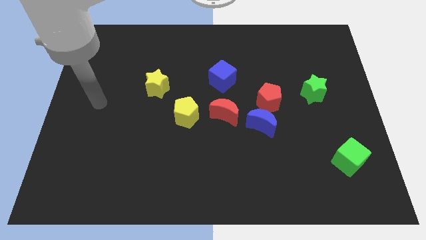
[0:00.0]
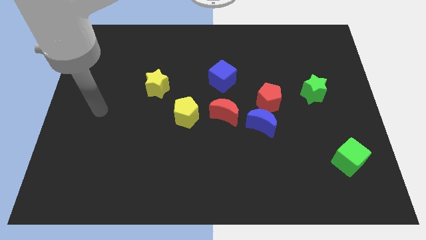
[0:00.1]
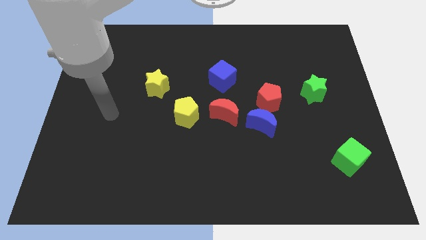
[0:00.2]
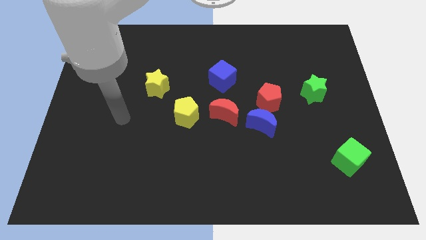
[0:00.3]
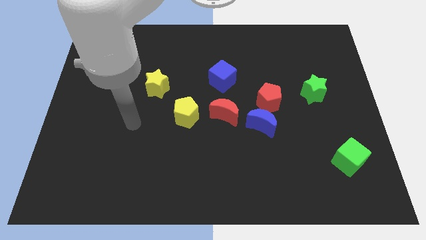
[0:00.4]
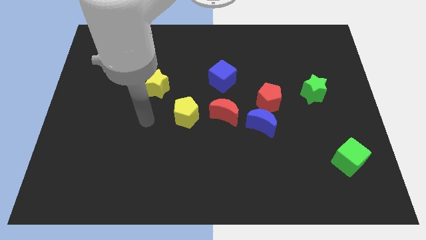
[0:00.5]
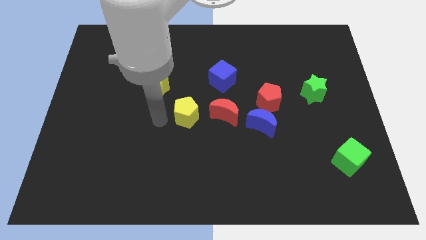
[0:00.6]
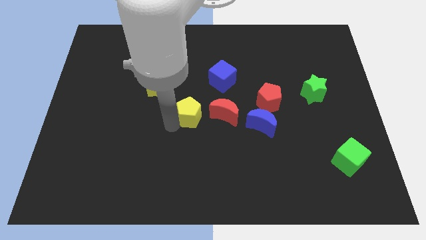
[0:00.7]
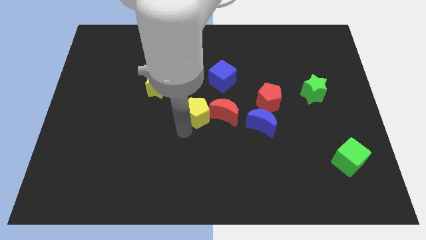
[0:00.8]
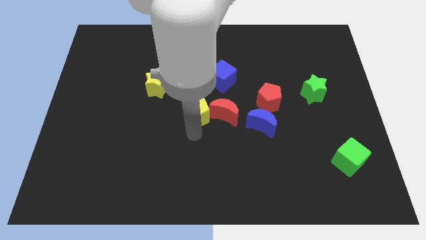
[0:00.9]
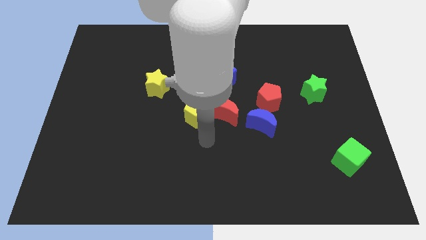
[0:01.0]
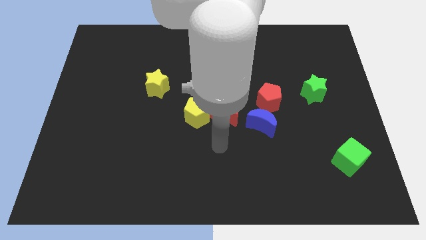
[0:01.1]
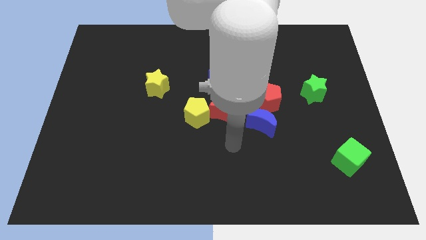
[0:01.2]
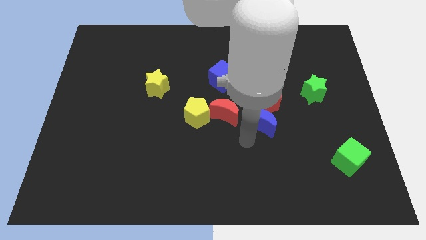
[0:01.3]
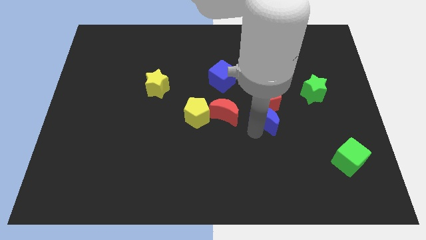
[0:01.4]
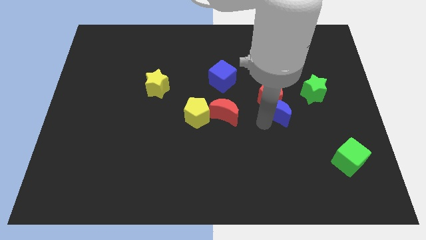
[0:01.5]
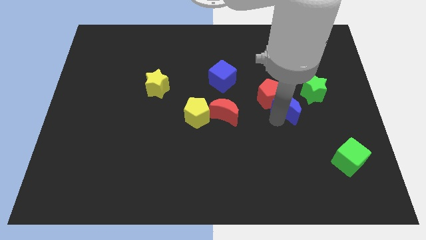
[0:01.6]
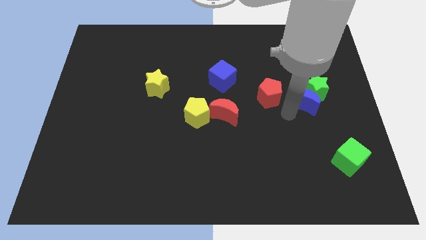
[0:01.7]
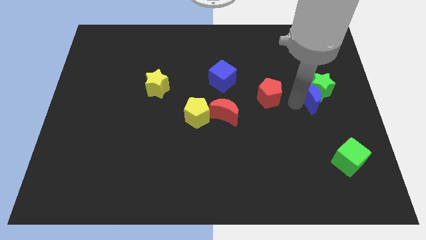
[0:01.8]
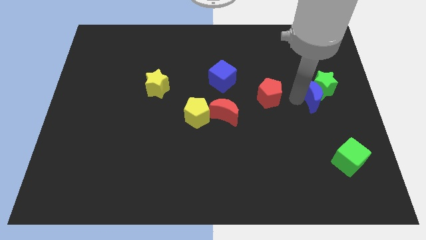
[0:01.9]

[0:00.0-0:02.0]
pull the red pentagon apart from the blue moon

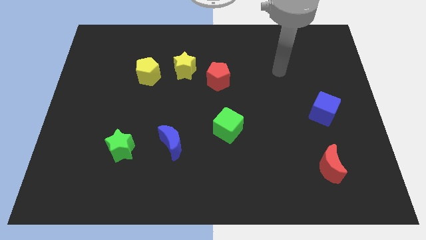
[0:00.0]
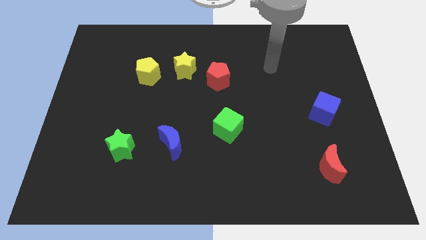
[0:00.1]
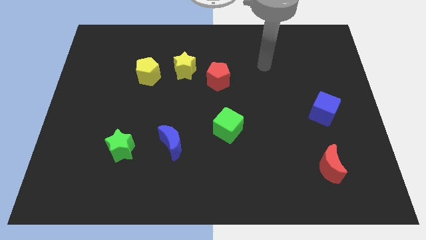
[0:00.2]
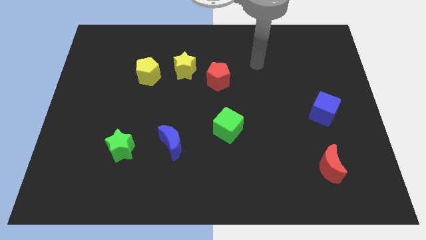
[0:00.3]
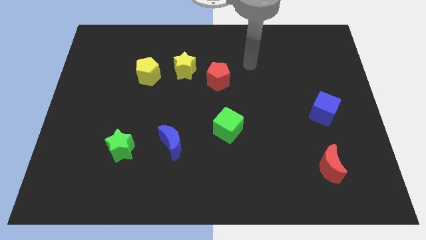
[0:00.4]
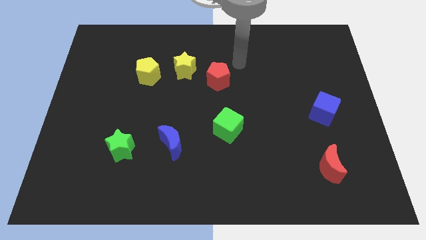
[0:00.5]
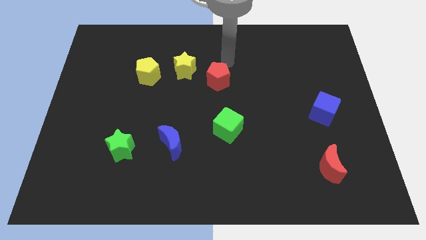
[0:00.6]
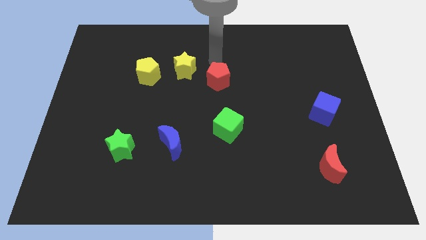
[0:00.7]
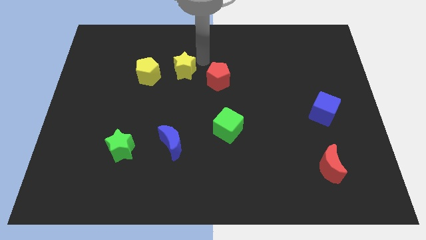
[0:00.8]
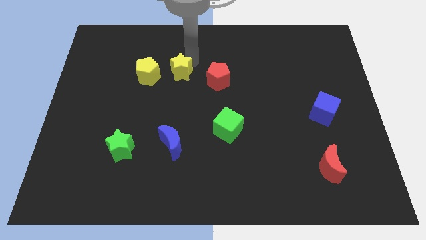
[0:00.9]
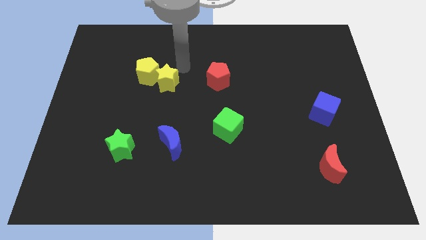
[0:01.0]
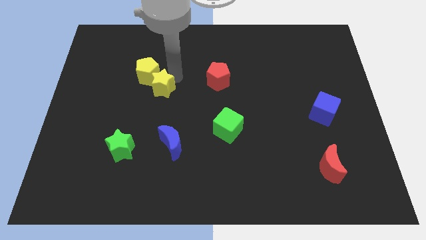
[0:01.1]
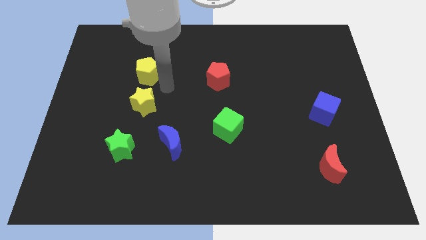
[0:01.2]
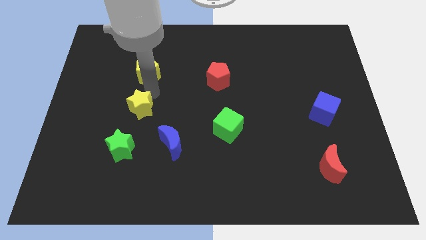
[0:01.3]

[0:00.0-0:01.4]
move the yellow pentagon away from the yellow star

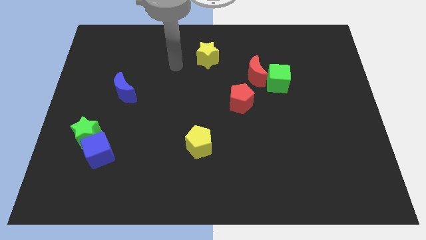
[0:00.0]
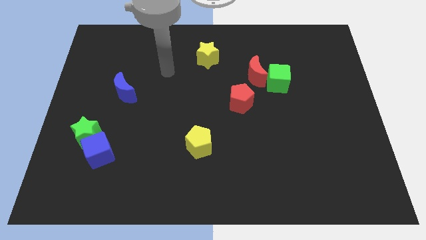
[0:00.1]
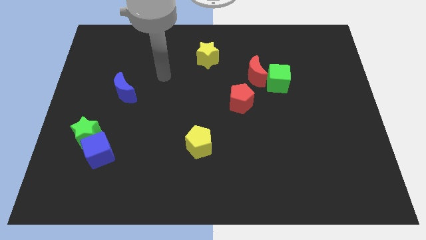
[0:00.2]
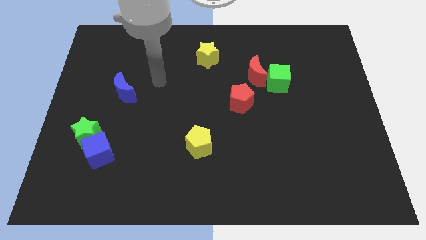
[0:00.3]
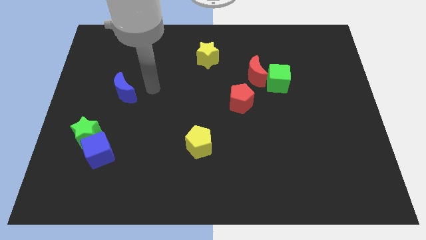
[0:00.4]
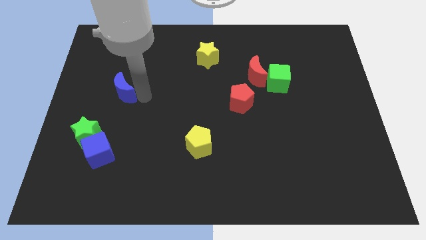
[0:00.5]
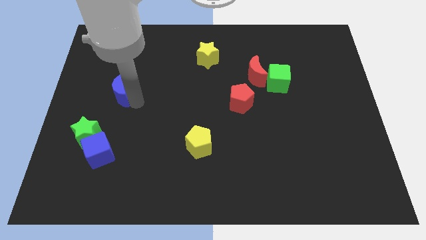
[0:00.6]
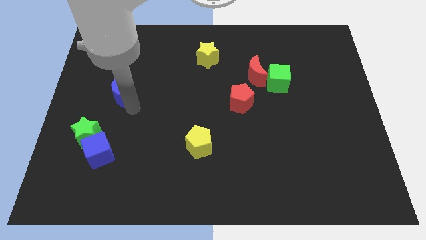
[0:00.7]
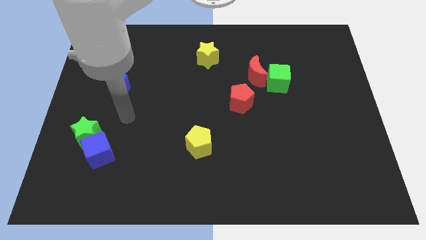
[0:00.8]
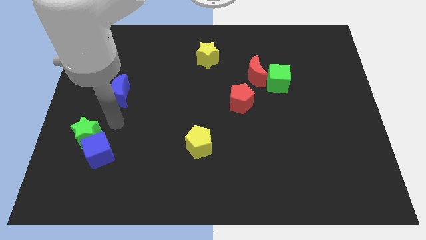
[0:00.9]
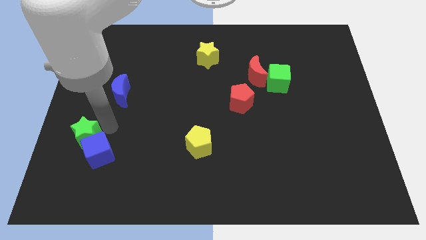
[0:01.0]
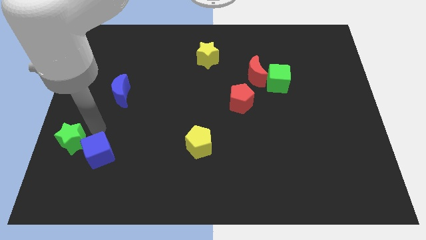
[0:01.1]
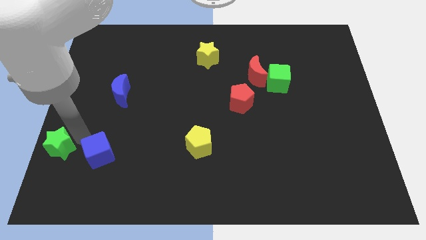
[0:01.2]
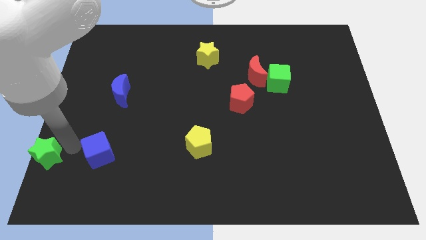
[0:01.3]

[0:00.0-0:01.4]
separate the blue cube from the green star

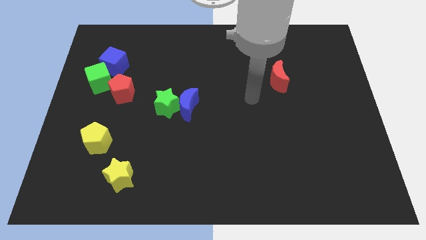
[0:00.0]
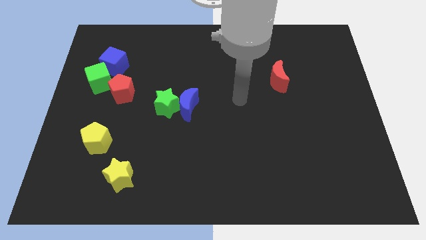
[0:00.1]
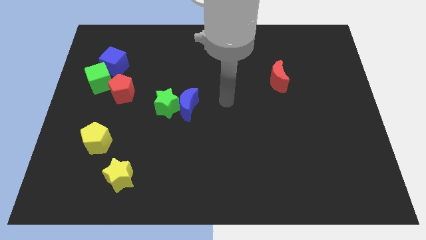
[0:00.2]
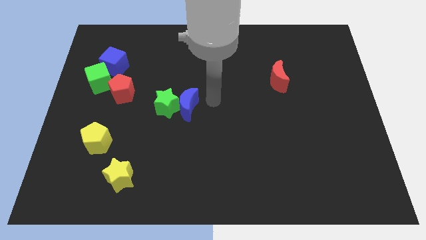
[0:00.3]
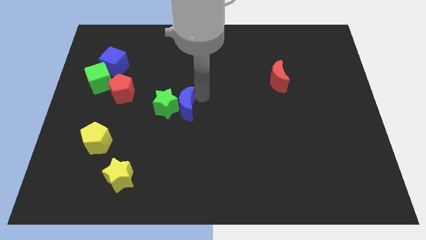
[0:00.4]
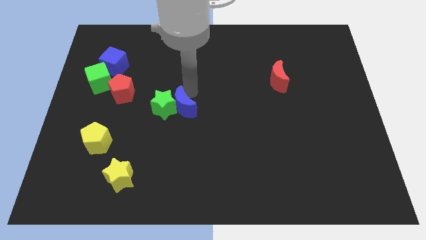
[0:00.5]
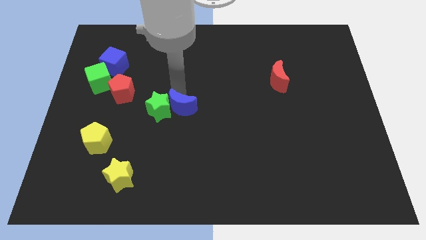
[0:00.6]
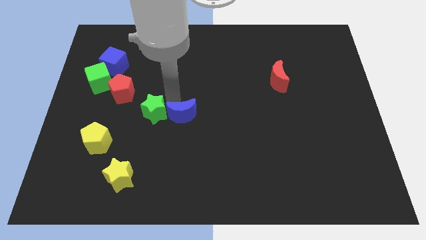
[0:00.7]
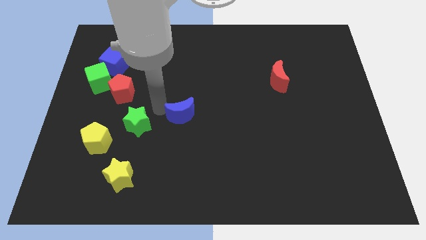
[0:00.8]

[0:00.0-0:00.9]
pull the blue moon apart from the green star

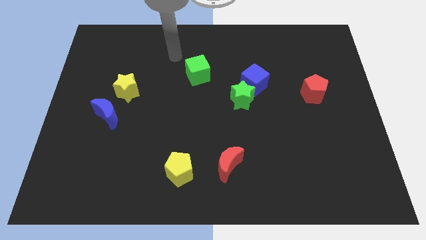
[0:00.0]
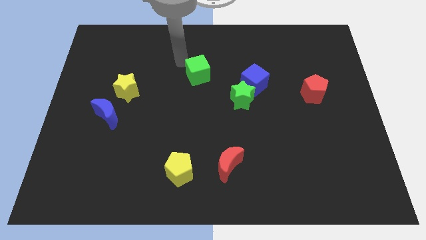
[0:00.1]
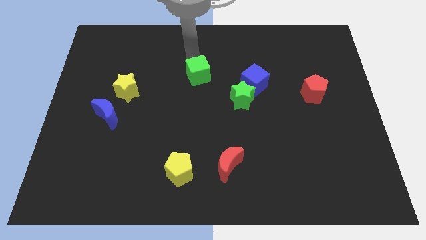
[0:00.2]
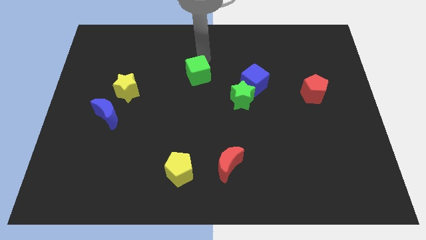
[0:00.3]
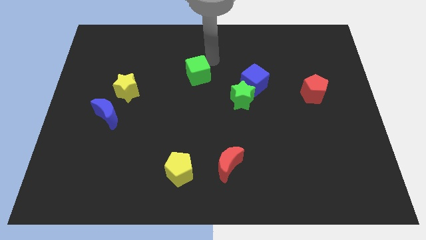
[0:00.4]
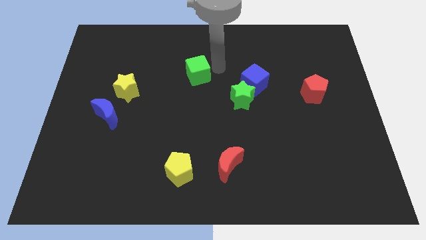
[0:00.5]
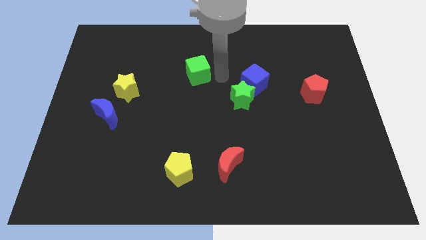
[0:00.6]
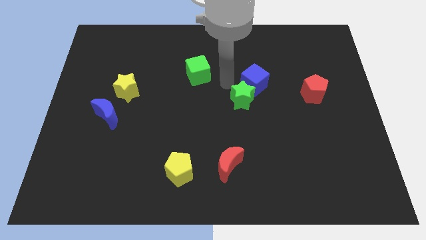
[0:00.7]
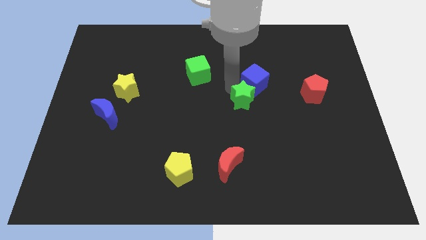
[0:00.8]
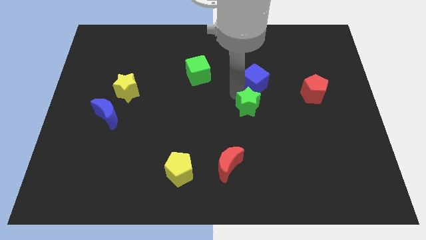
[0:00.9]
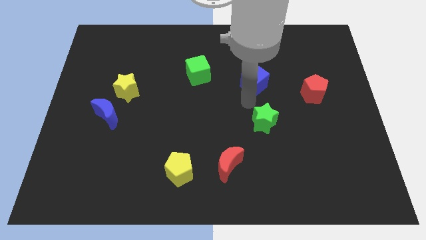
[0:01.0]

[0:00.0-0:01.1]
move the blue cube away from the green star

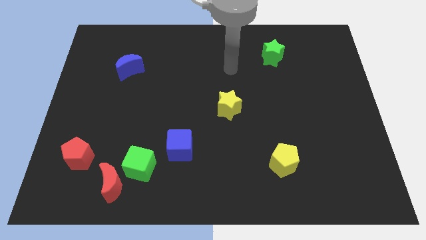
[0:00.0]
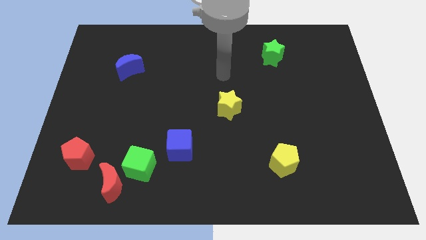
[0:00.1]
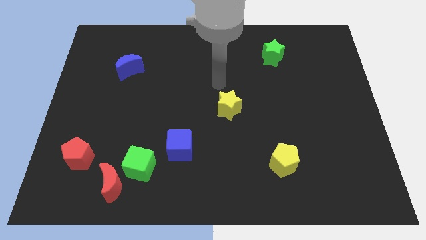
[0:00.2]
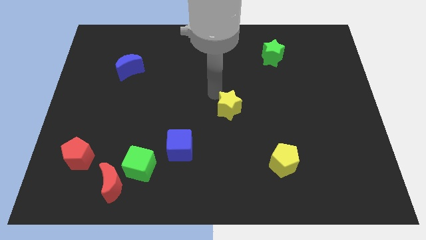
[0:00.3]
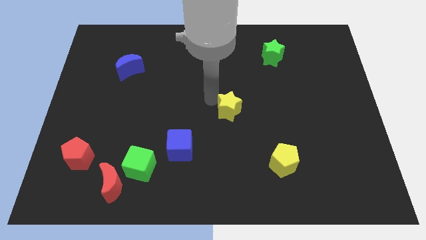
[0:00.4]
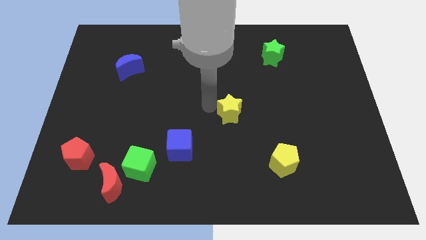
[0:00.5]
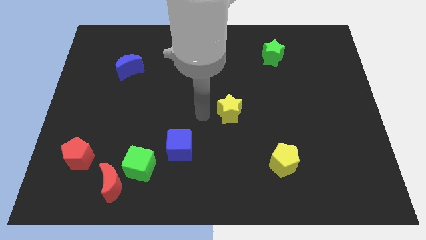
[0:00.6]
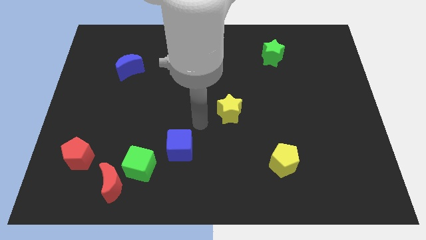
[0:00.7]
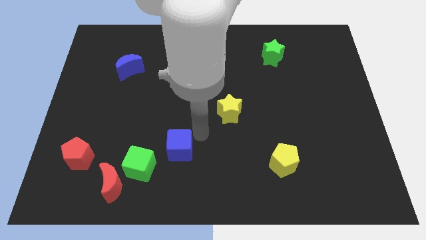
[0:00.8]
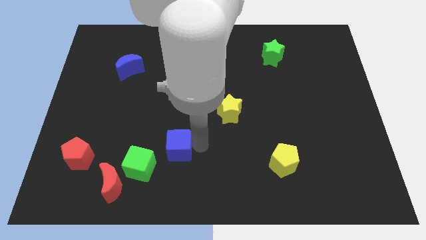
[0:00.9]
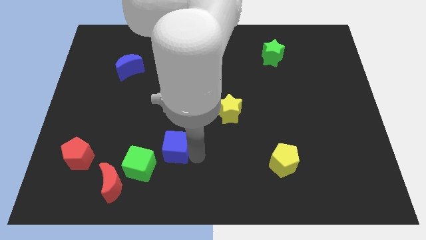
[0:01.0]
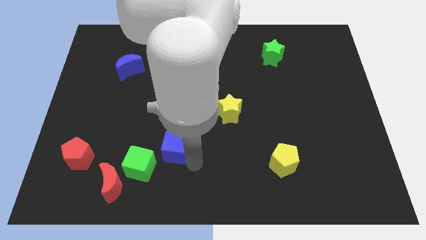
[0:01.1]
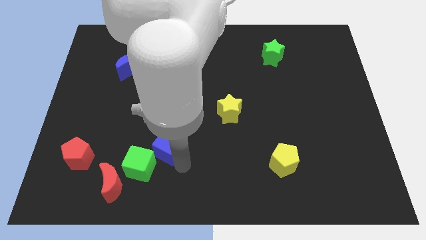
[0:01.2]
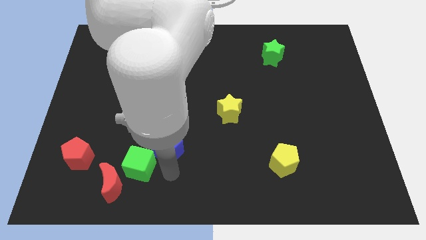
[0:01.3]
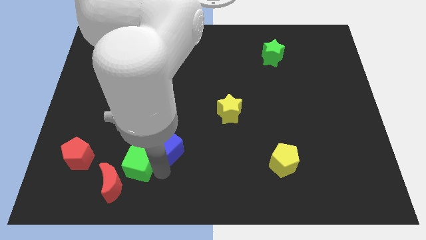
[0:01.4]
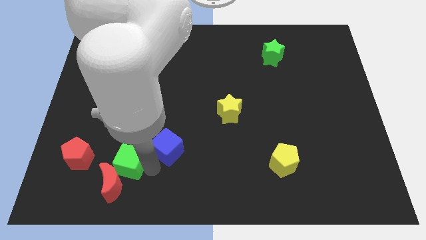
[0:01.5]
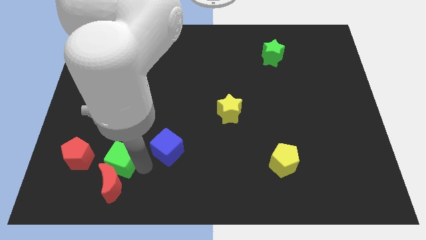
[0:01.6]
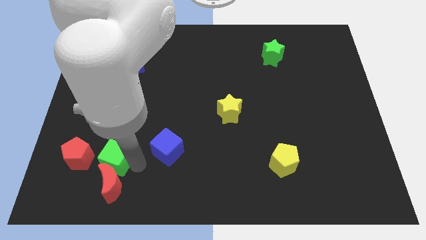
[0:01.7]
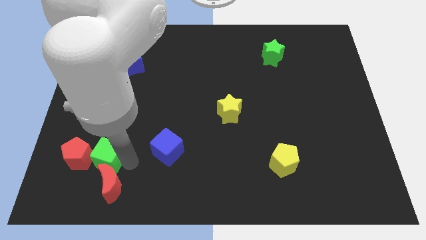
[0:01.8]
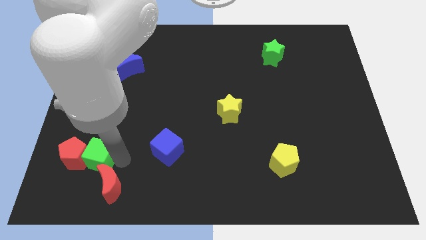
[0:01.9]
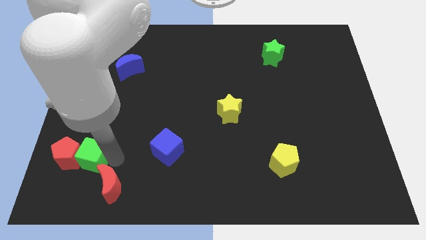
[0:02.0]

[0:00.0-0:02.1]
pull the green cube apart from the red moon and blue cube

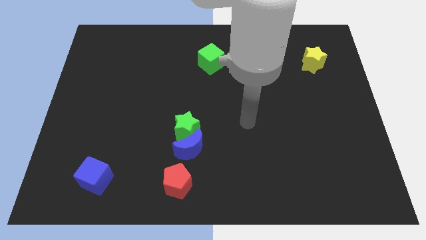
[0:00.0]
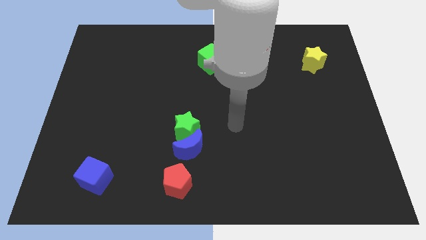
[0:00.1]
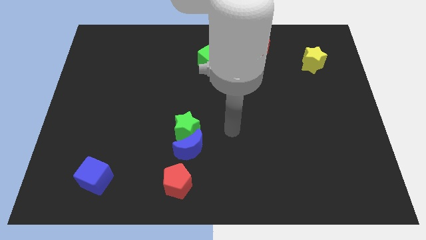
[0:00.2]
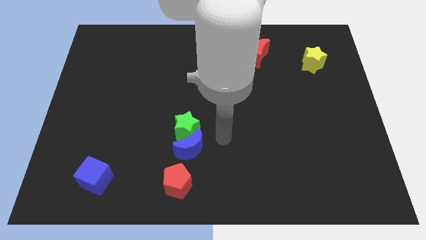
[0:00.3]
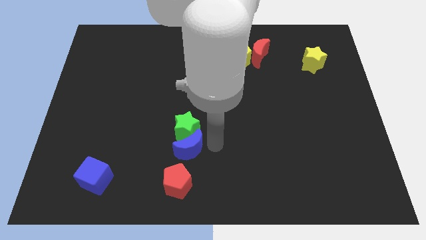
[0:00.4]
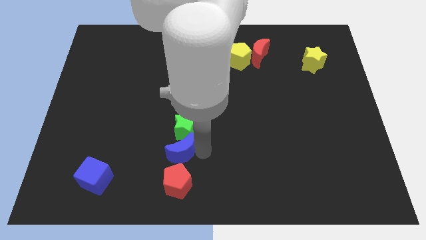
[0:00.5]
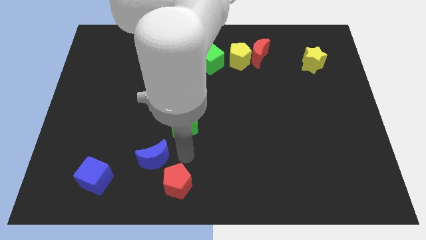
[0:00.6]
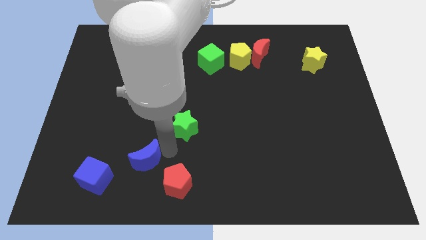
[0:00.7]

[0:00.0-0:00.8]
move the green star away from the blue moon
